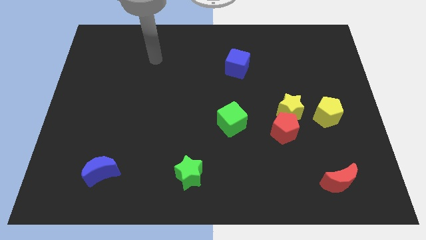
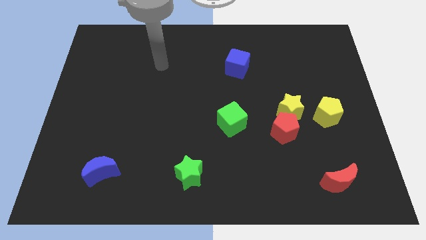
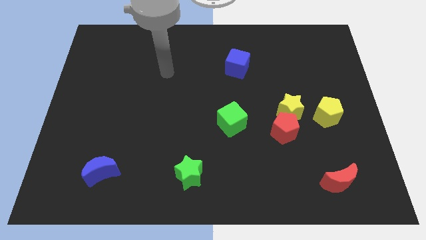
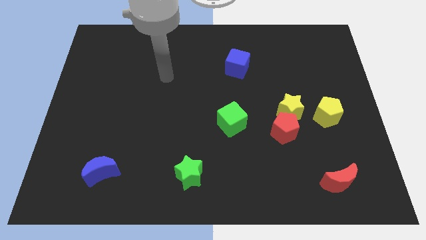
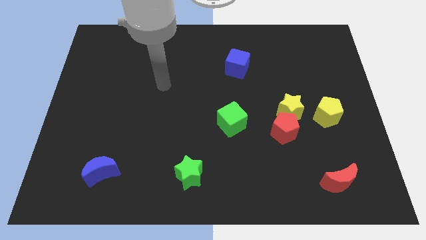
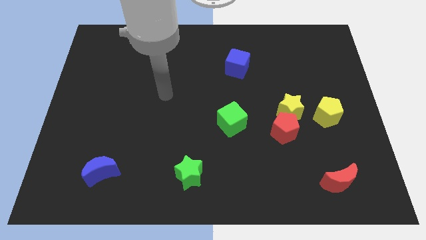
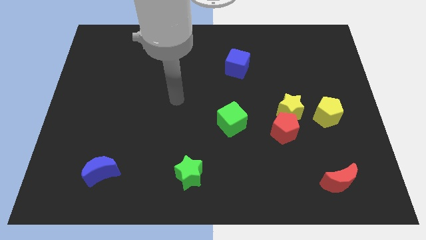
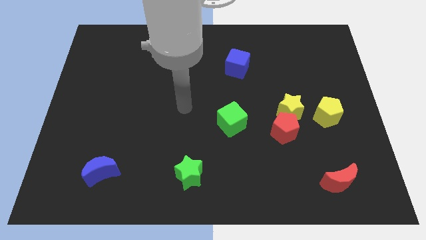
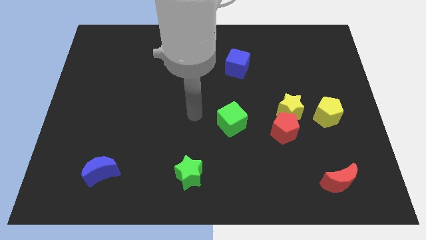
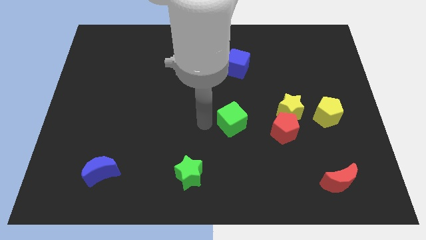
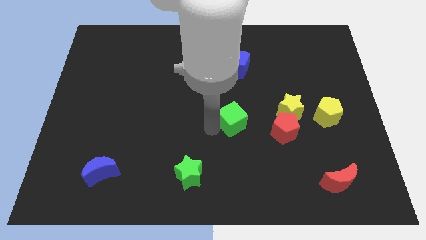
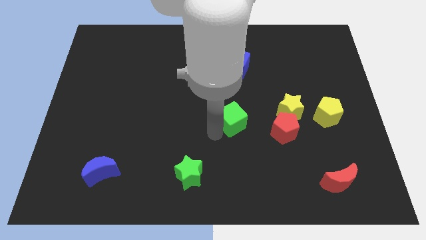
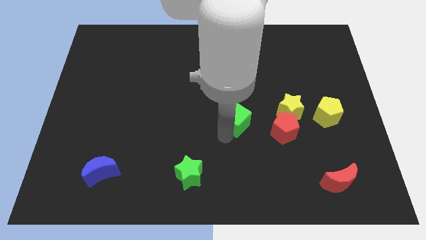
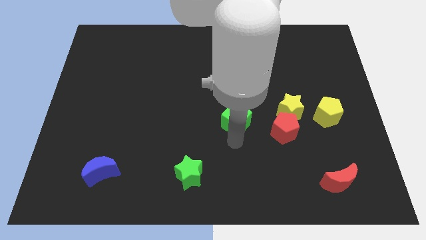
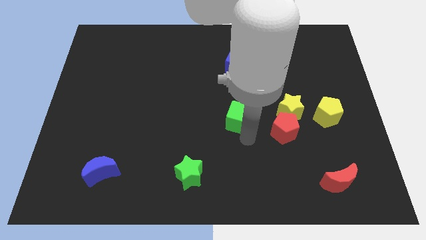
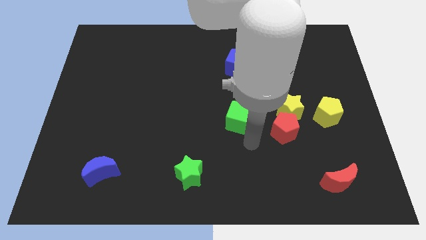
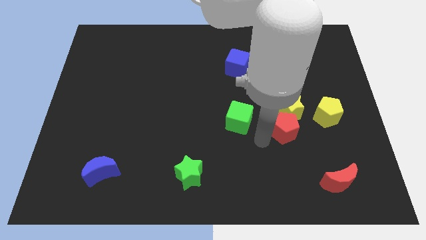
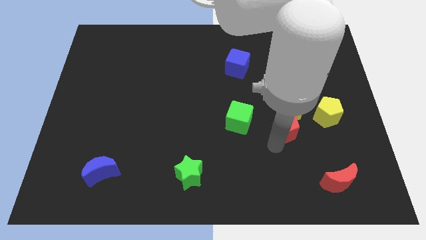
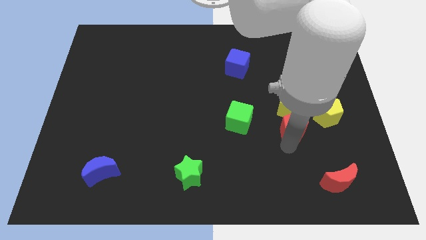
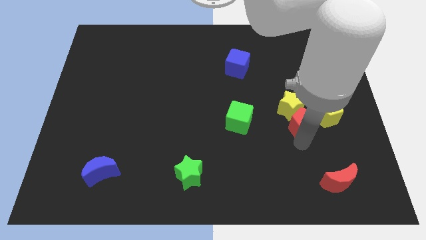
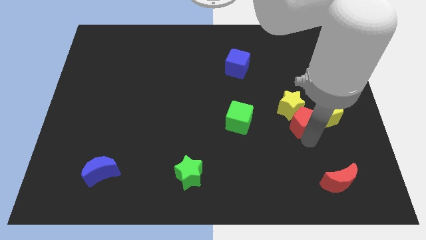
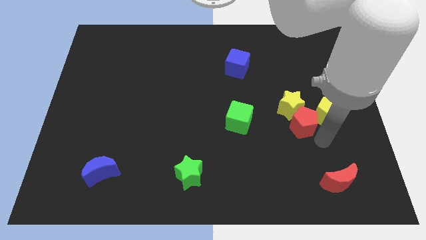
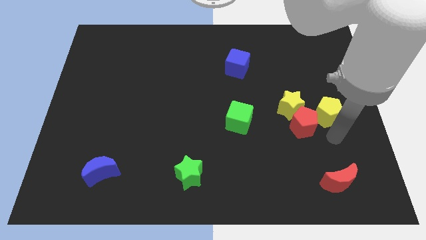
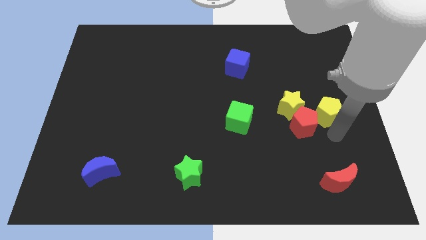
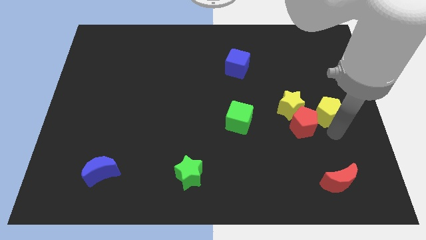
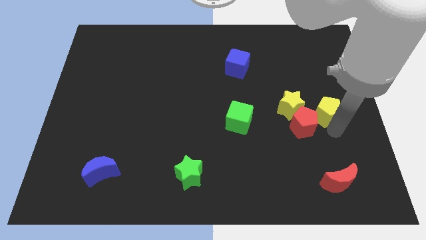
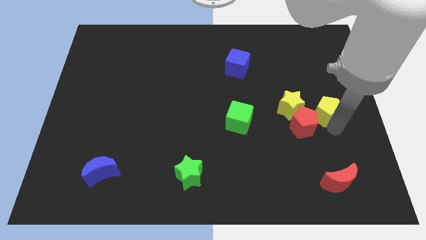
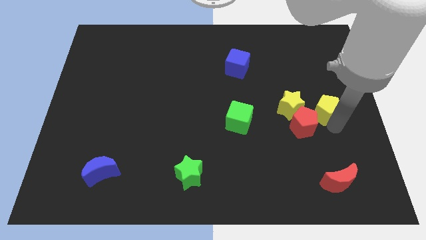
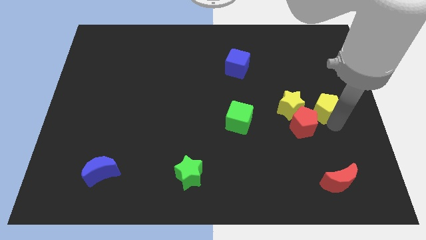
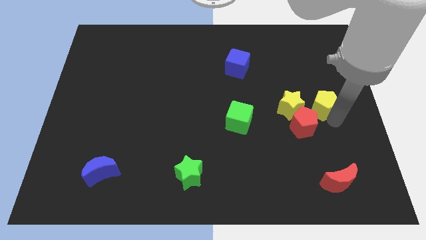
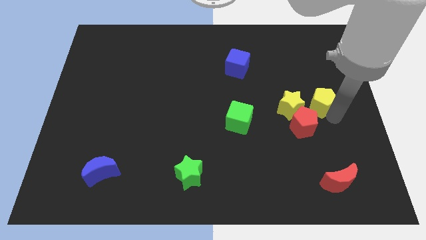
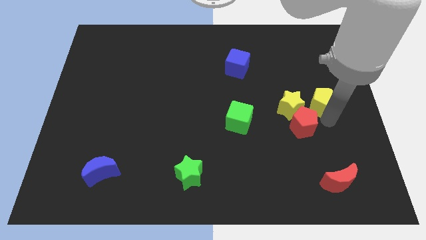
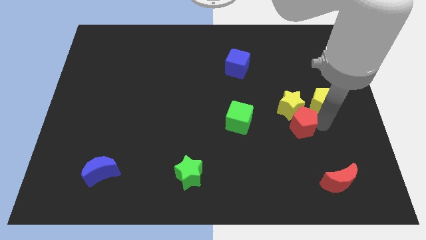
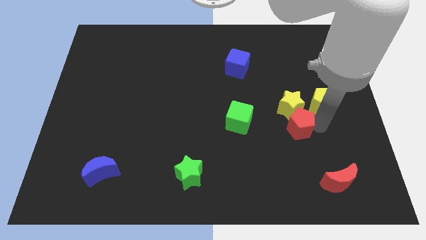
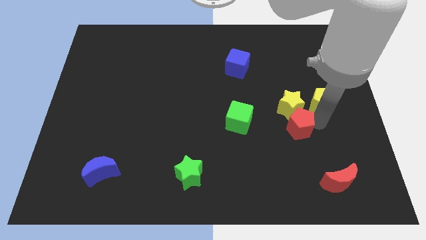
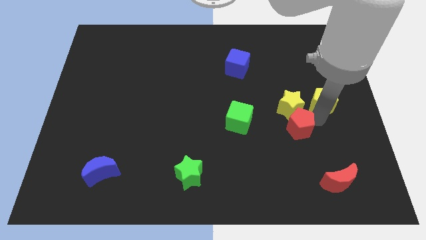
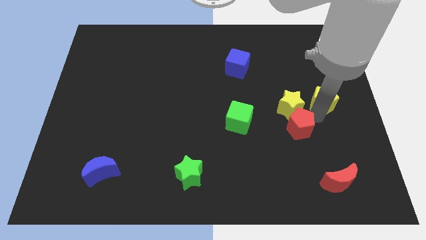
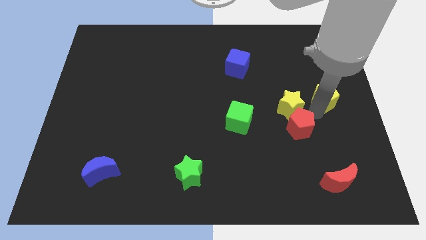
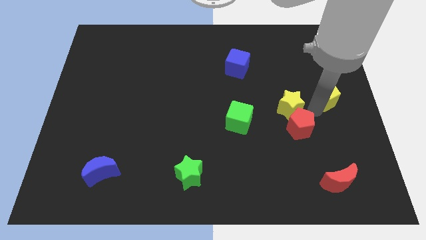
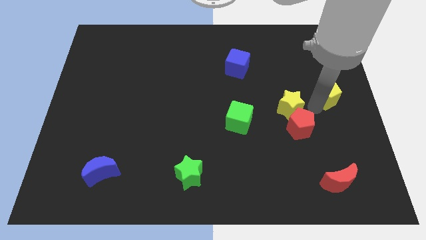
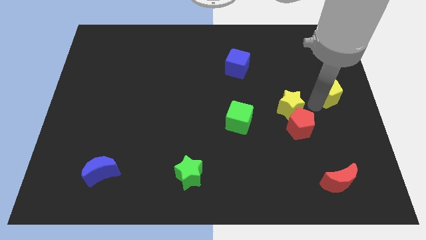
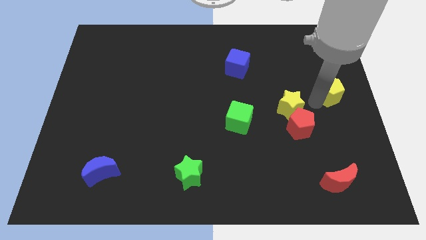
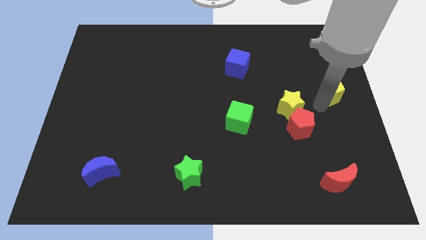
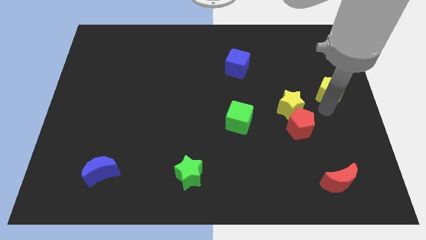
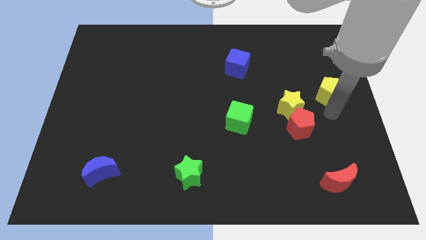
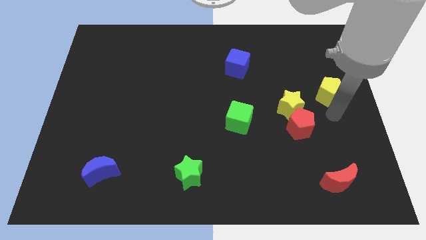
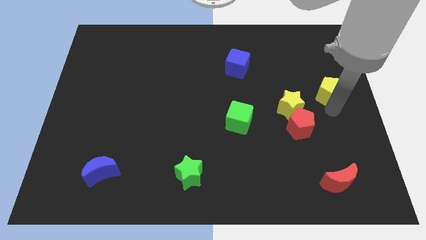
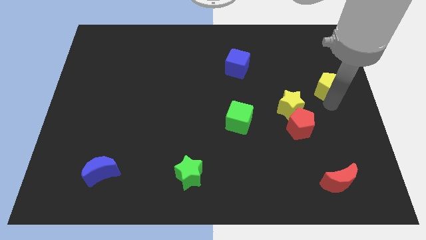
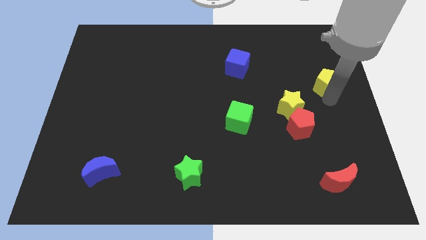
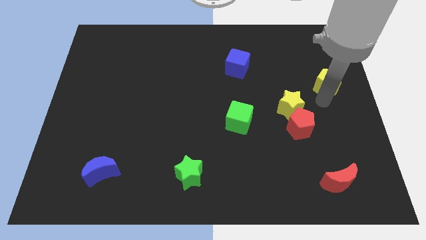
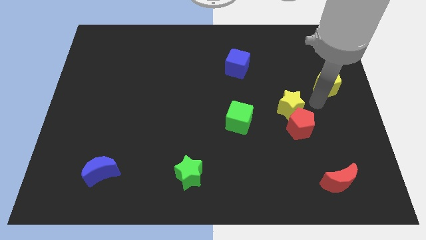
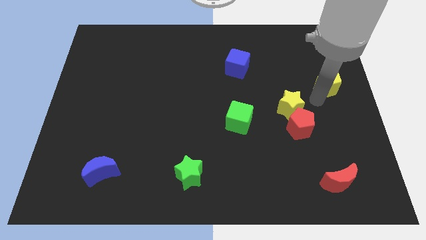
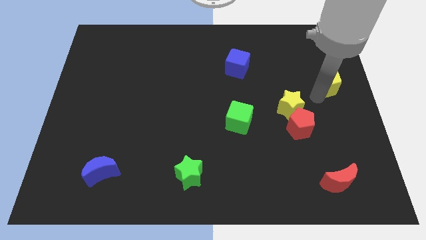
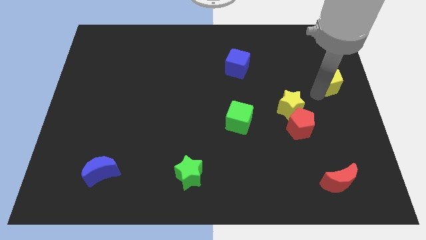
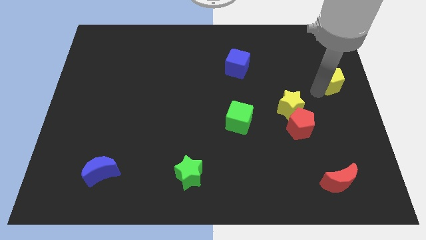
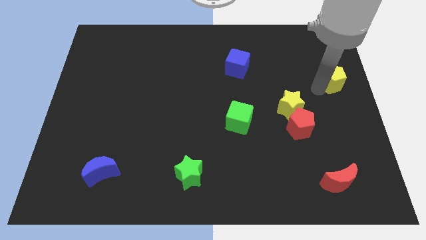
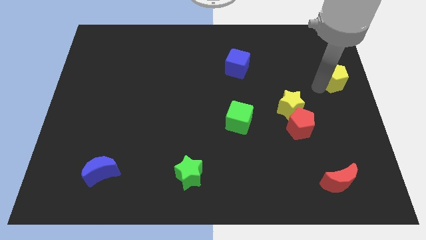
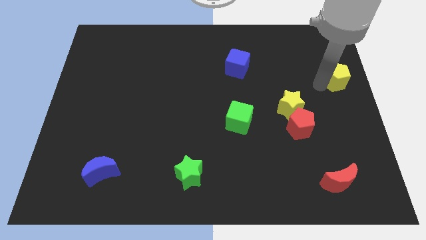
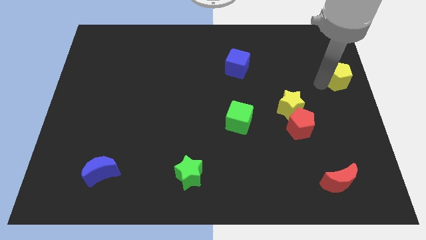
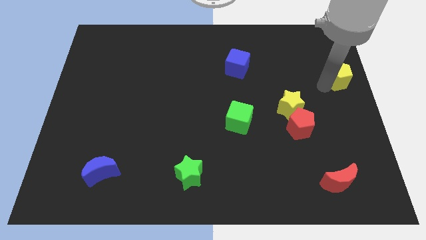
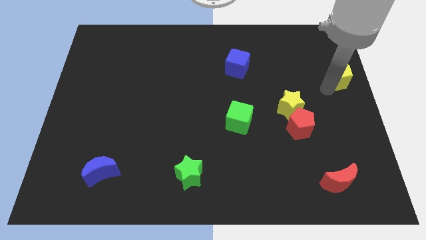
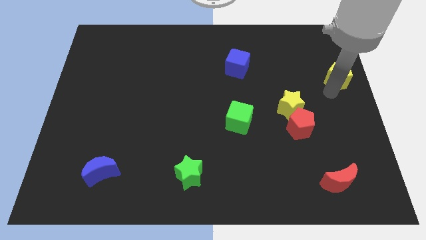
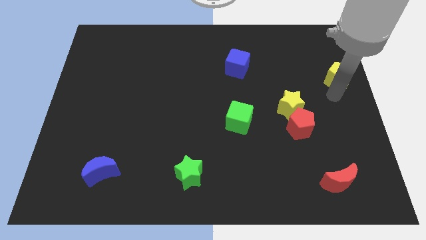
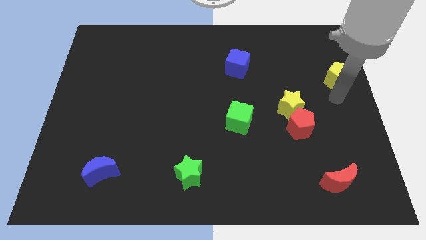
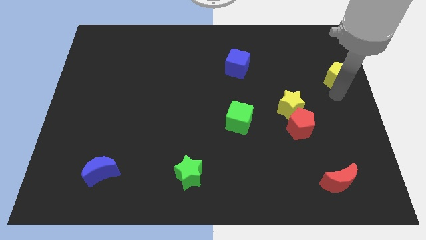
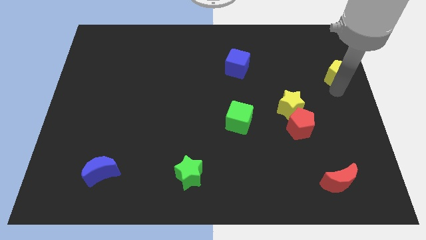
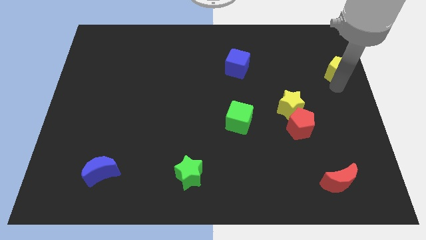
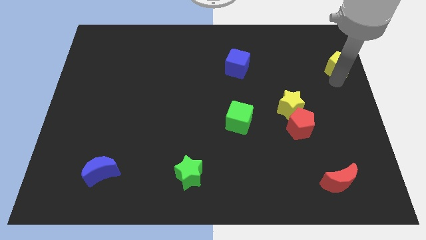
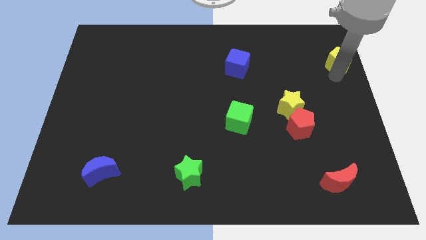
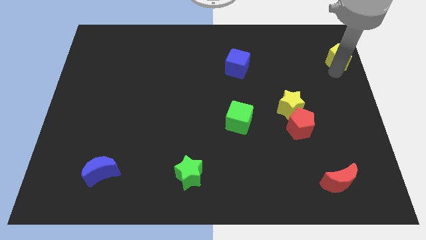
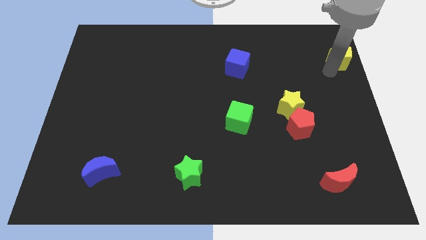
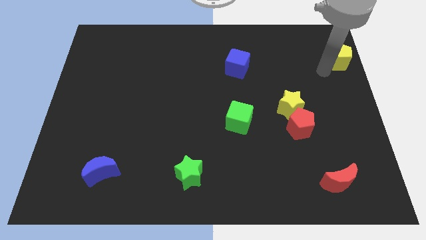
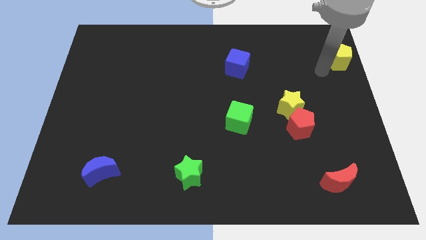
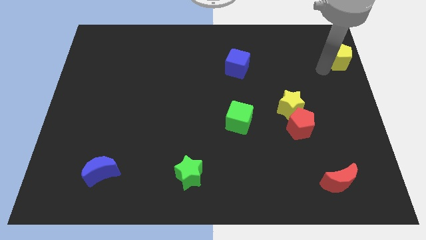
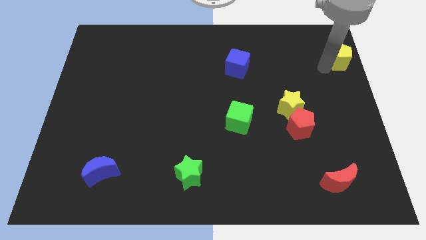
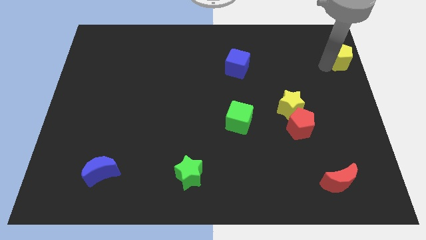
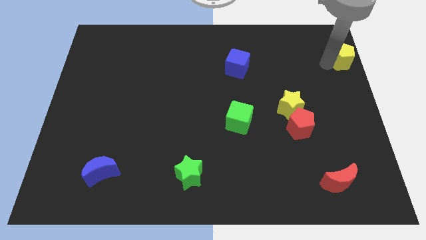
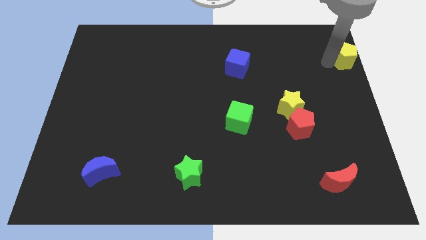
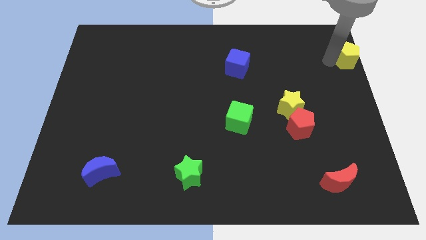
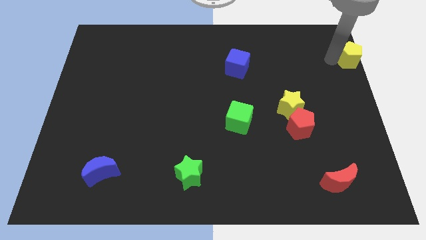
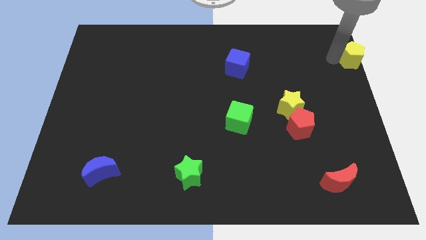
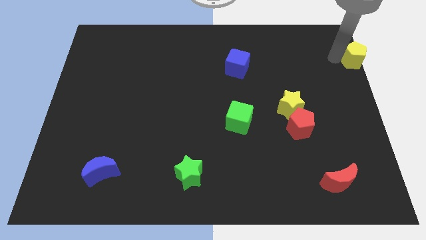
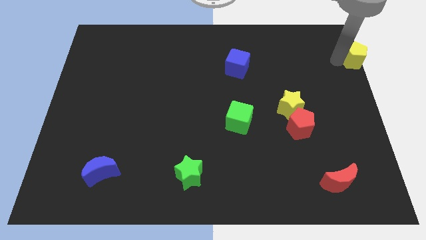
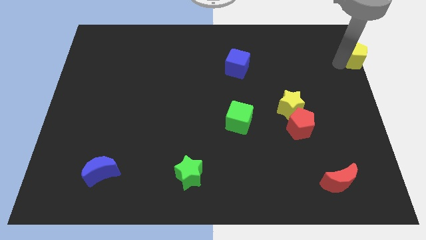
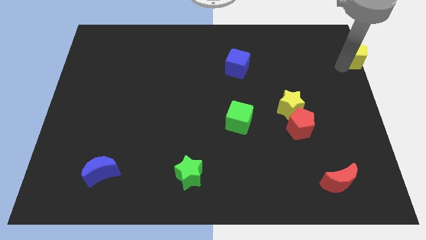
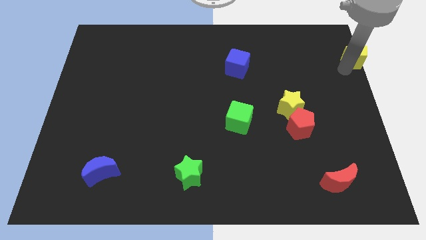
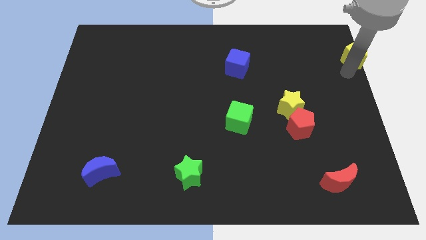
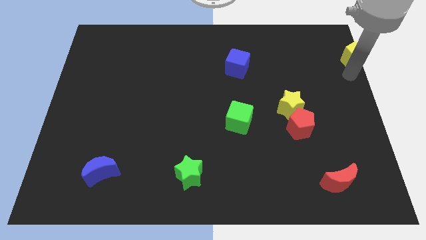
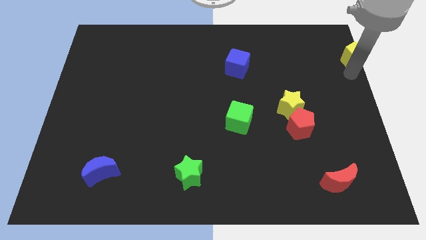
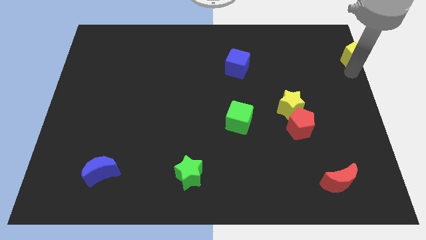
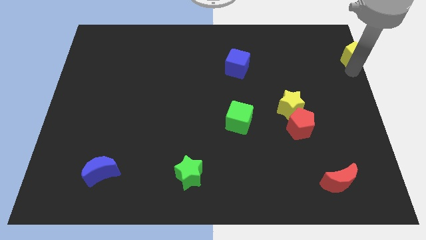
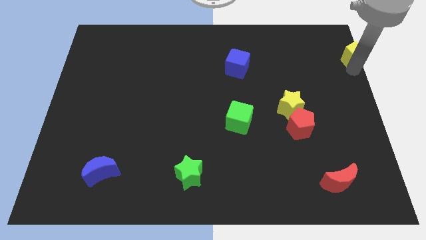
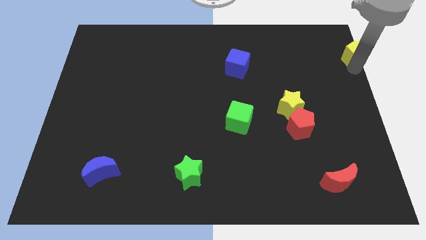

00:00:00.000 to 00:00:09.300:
move the yellow pentagon to the upper right corner
